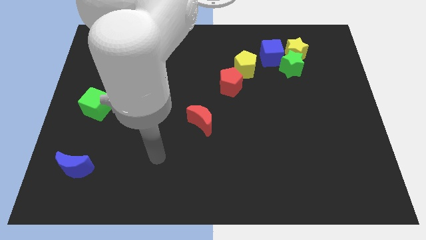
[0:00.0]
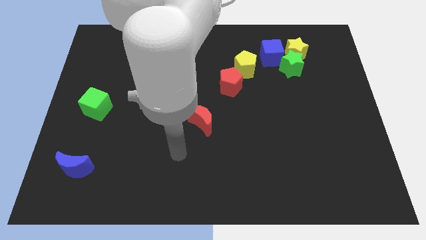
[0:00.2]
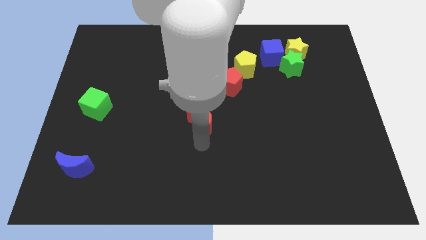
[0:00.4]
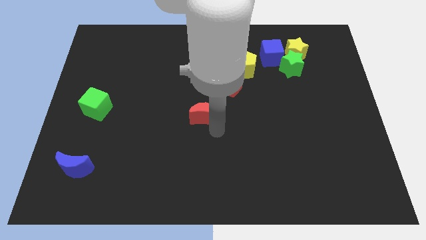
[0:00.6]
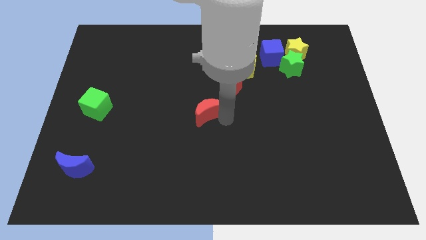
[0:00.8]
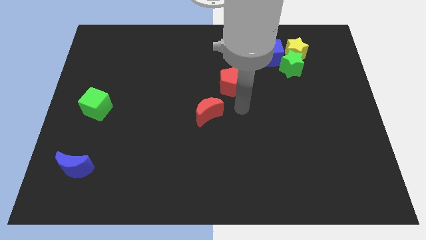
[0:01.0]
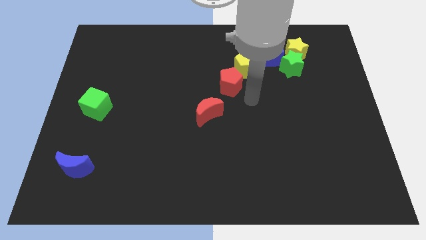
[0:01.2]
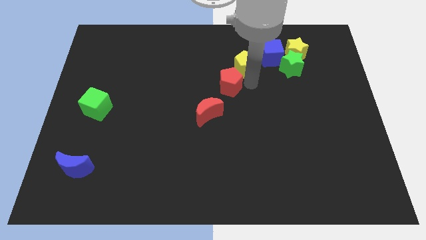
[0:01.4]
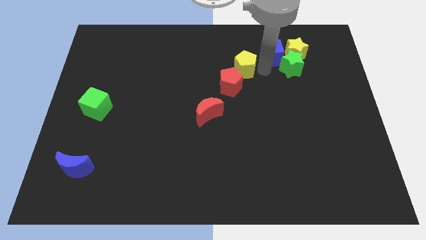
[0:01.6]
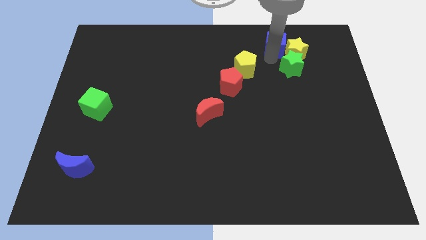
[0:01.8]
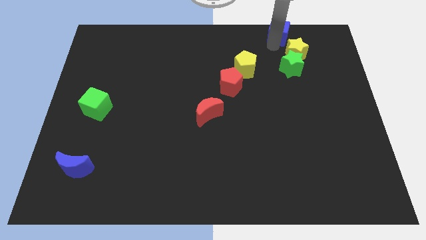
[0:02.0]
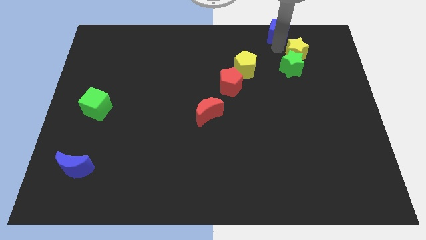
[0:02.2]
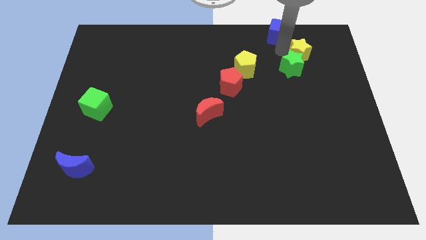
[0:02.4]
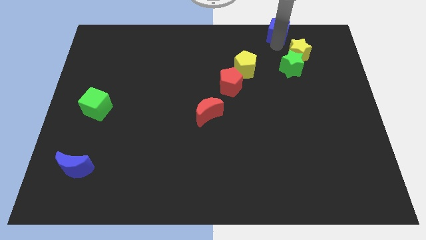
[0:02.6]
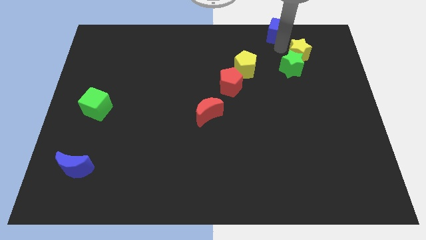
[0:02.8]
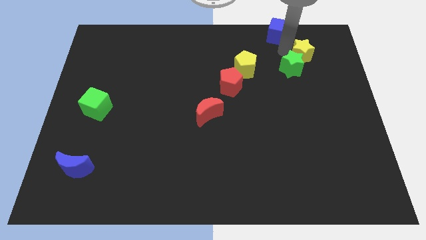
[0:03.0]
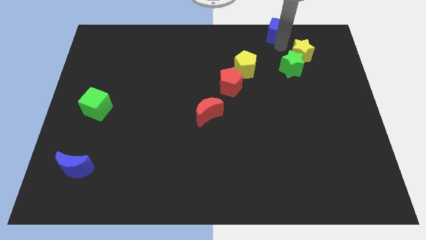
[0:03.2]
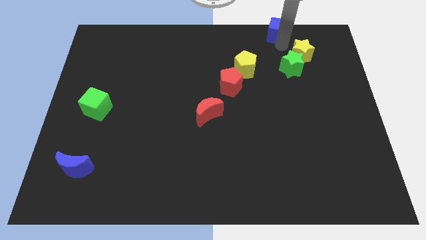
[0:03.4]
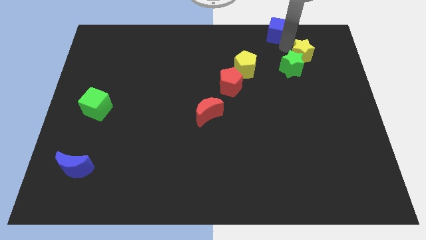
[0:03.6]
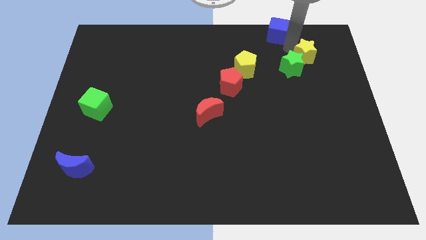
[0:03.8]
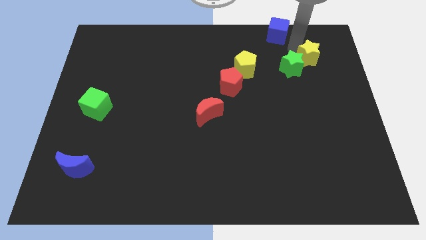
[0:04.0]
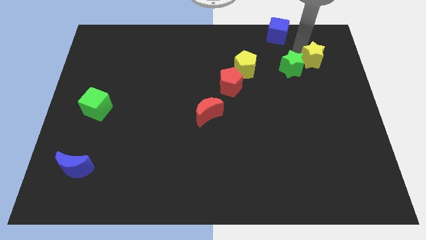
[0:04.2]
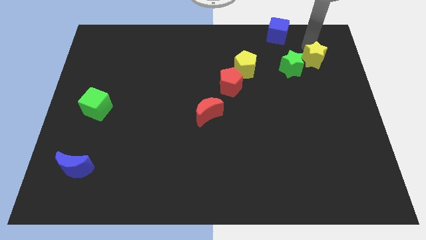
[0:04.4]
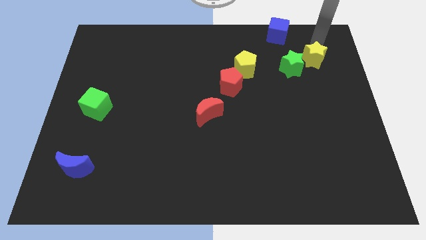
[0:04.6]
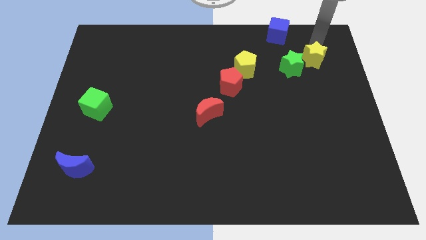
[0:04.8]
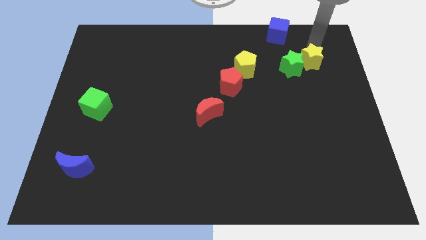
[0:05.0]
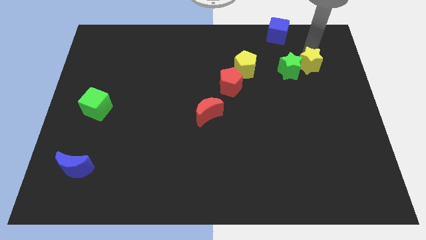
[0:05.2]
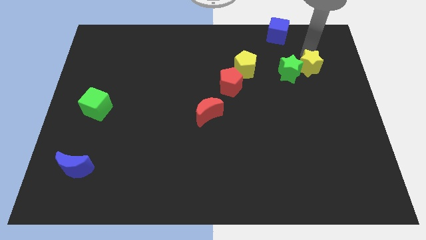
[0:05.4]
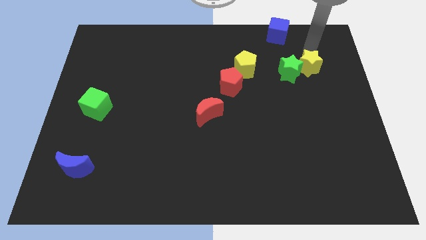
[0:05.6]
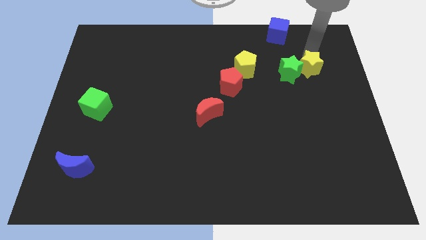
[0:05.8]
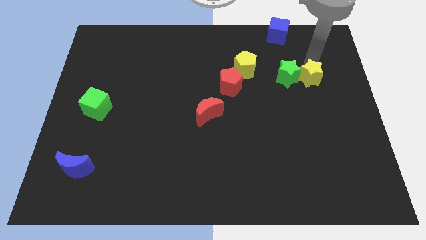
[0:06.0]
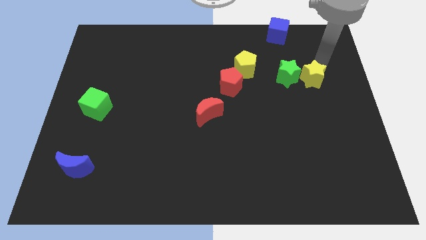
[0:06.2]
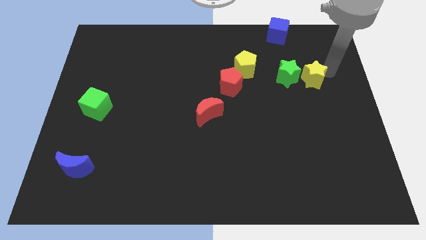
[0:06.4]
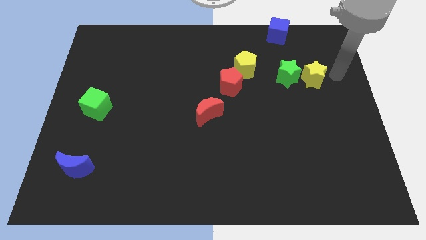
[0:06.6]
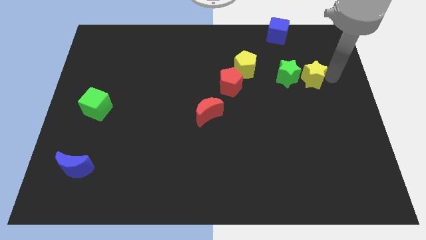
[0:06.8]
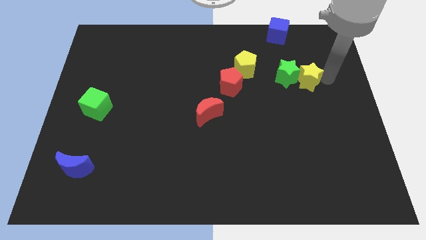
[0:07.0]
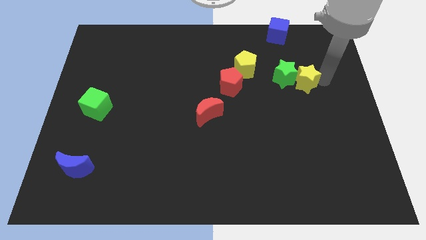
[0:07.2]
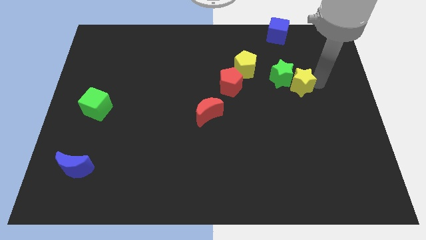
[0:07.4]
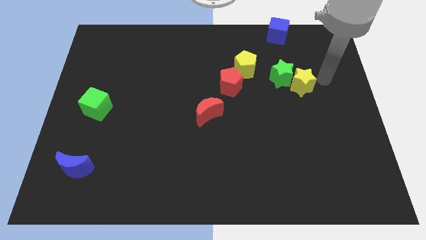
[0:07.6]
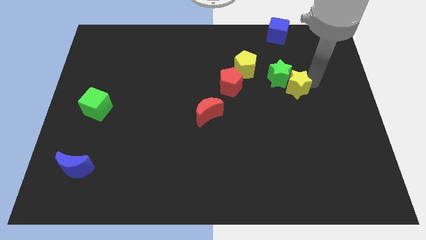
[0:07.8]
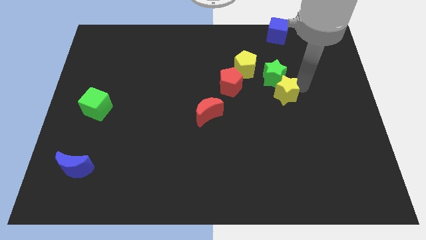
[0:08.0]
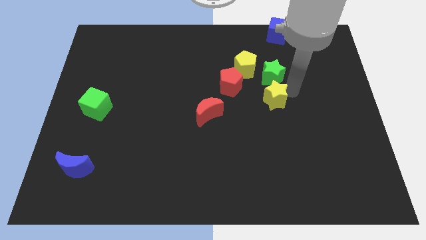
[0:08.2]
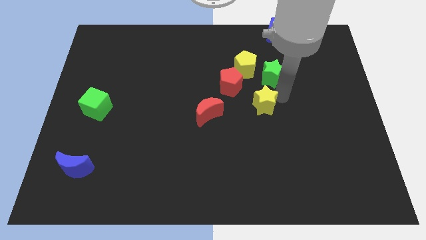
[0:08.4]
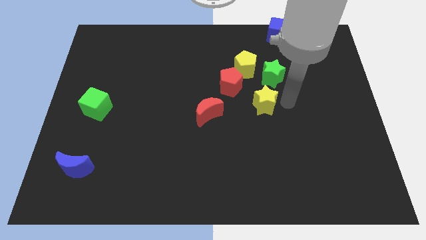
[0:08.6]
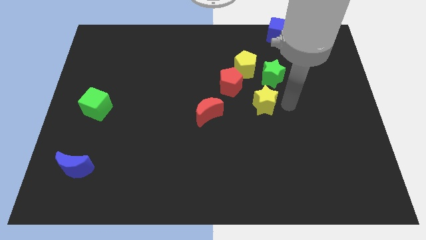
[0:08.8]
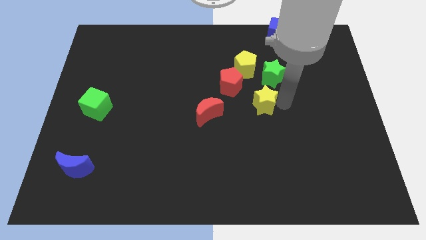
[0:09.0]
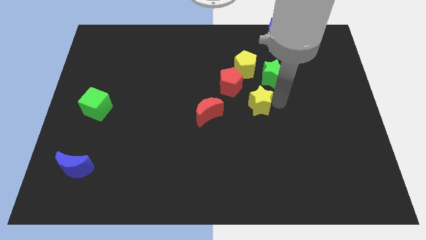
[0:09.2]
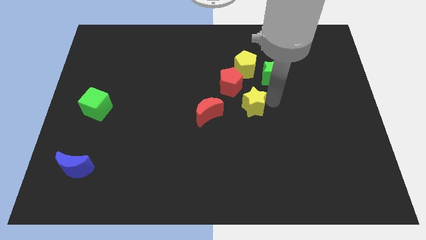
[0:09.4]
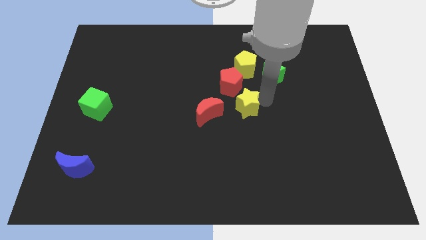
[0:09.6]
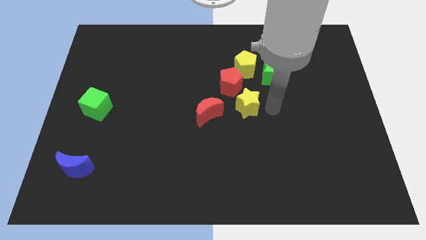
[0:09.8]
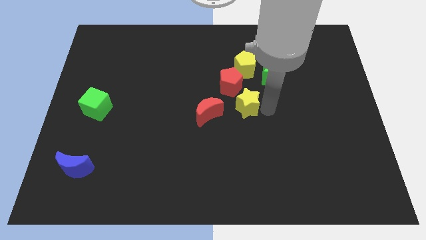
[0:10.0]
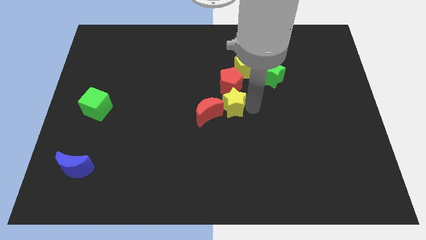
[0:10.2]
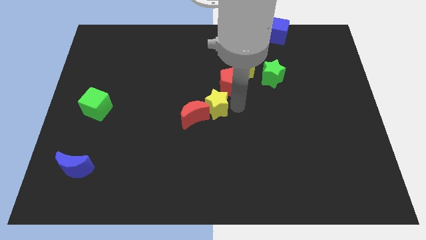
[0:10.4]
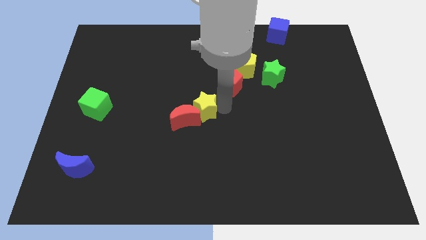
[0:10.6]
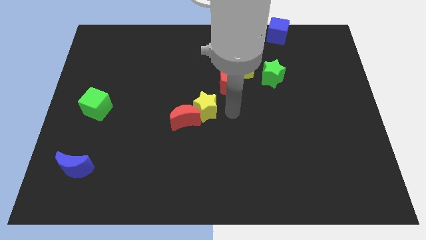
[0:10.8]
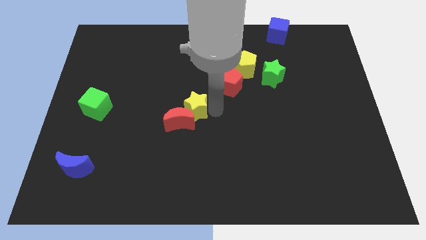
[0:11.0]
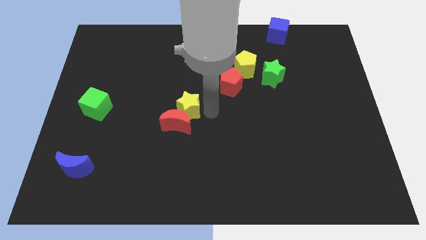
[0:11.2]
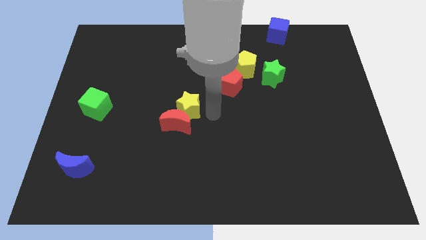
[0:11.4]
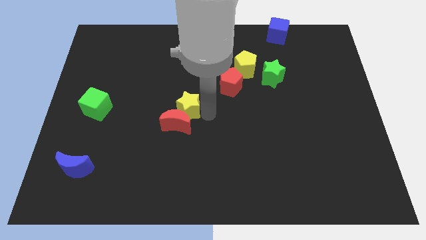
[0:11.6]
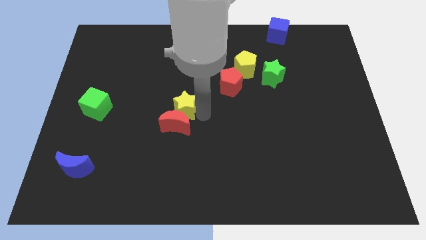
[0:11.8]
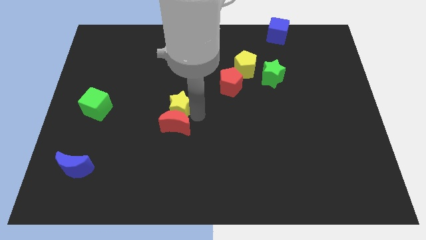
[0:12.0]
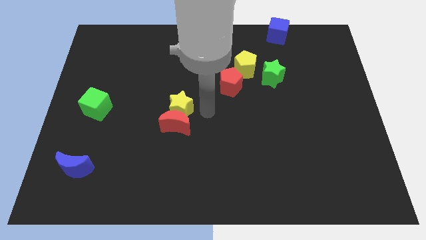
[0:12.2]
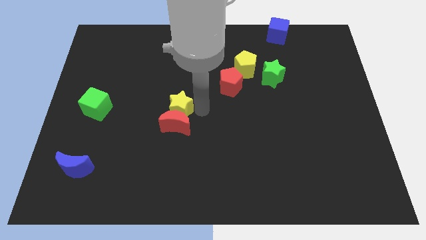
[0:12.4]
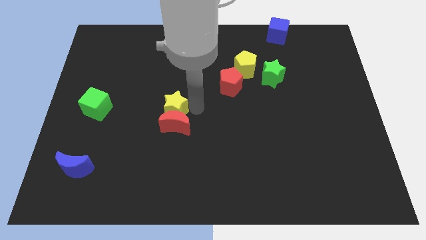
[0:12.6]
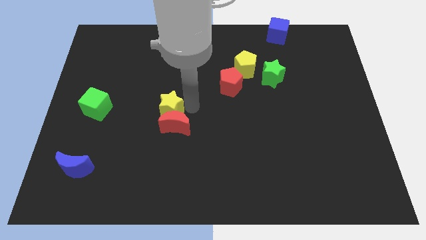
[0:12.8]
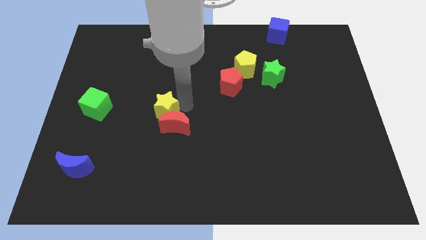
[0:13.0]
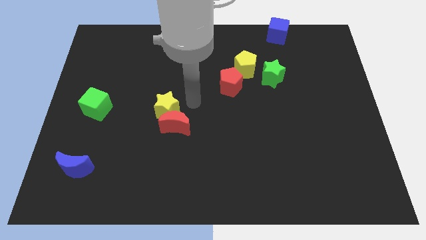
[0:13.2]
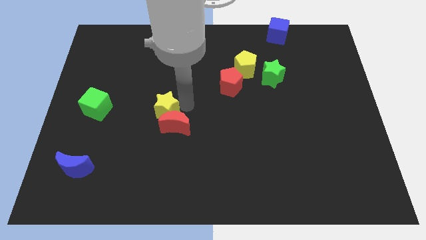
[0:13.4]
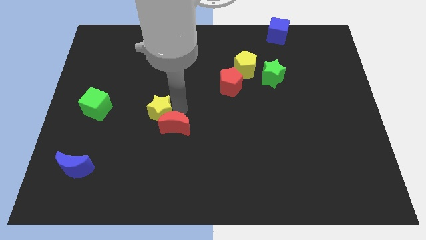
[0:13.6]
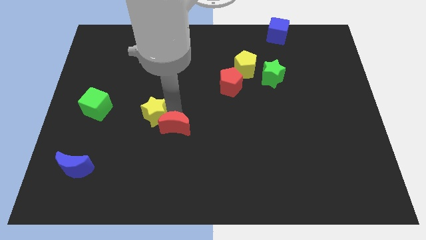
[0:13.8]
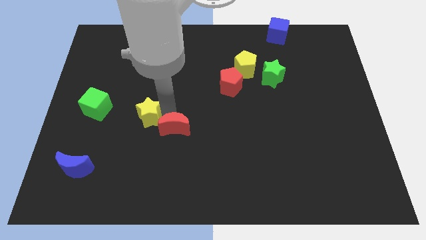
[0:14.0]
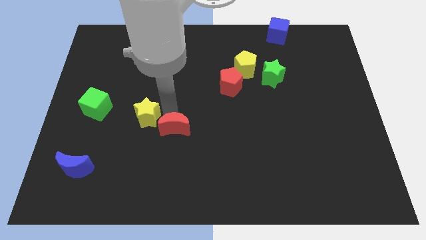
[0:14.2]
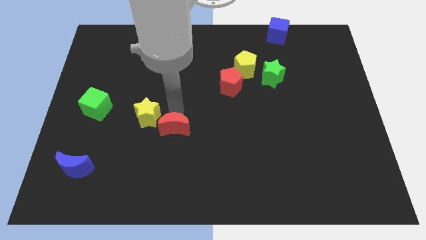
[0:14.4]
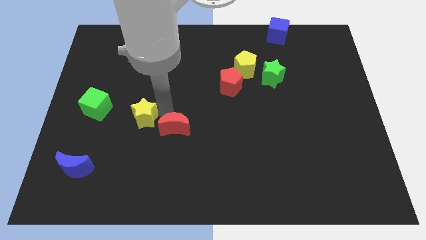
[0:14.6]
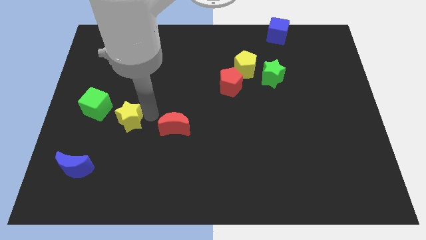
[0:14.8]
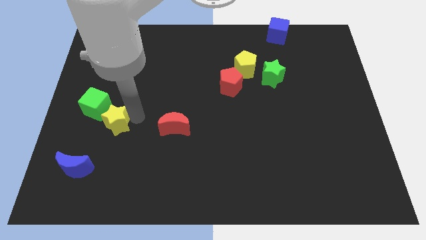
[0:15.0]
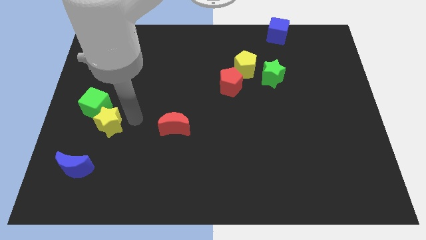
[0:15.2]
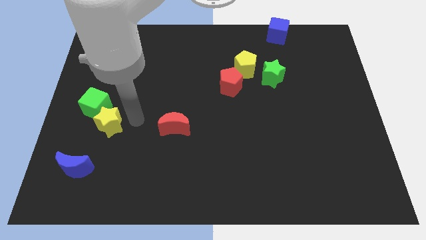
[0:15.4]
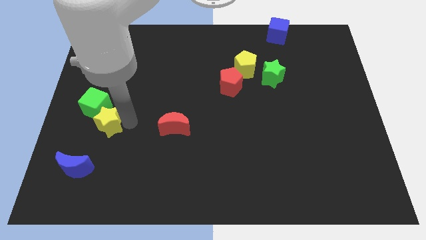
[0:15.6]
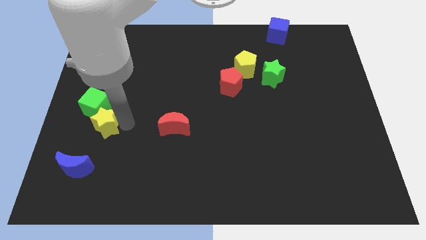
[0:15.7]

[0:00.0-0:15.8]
put the yellow star to the top of the blue moon
